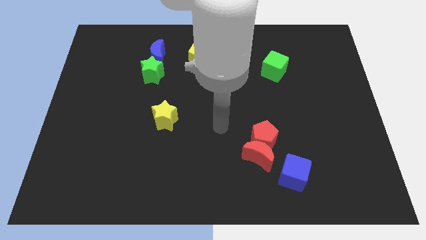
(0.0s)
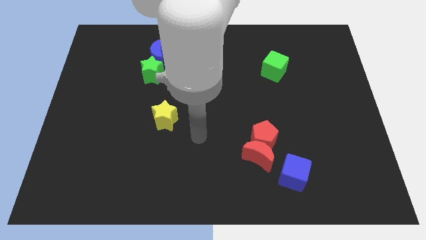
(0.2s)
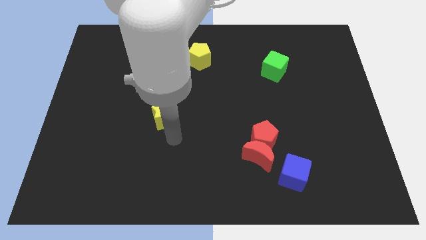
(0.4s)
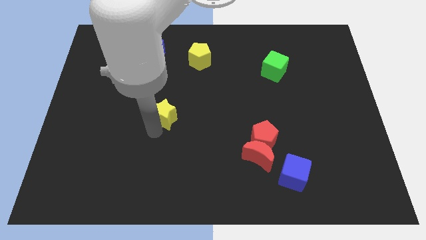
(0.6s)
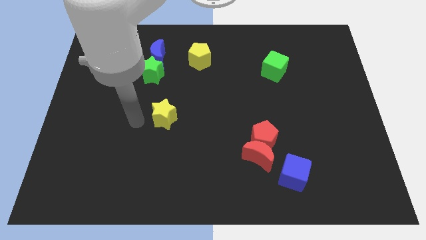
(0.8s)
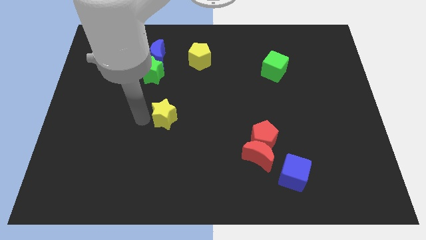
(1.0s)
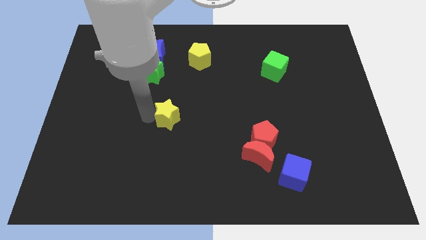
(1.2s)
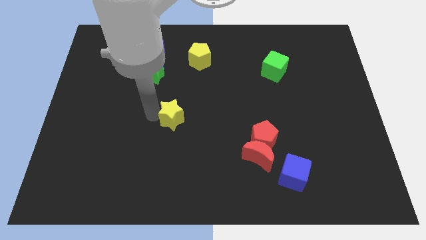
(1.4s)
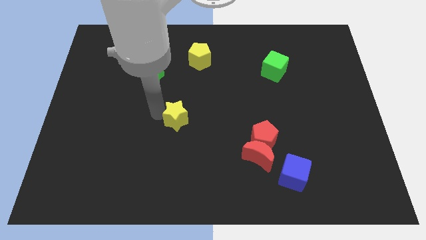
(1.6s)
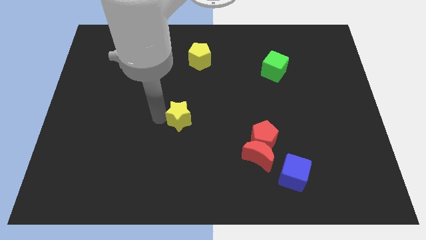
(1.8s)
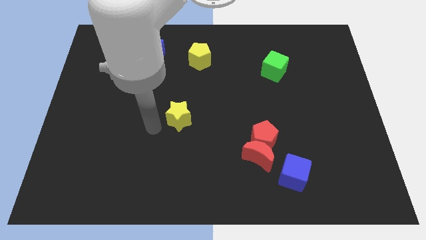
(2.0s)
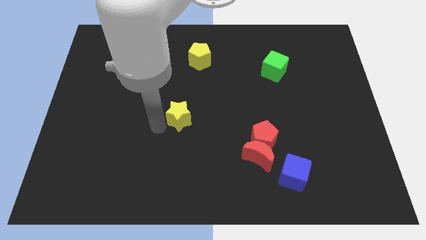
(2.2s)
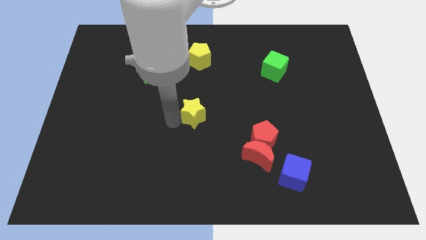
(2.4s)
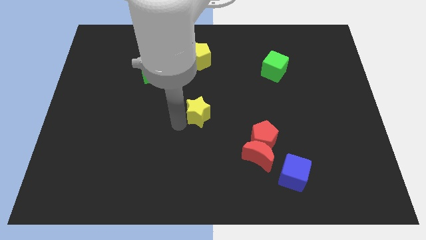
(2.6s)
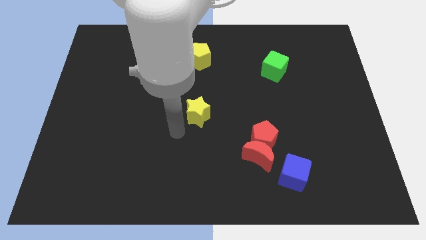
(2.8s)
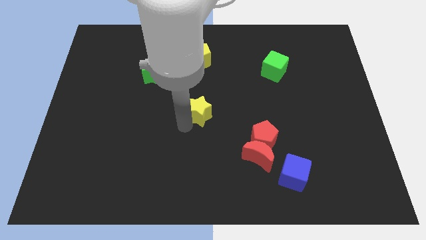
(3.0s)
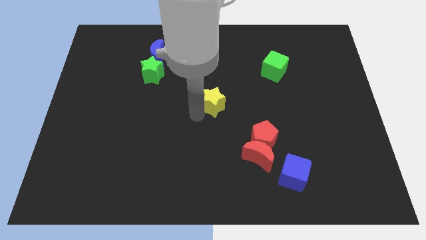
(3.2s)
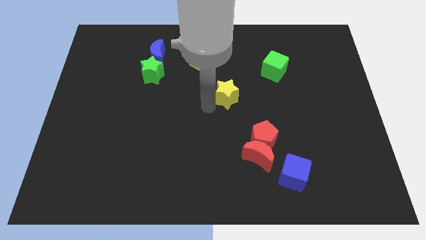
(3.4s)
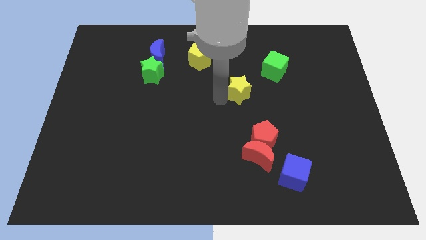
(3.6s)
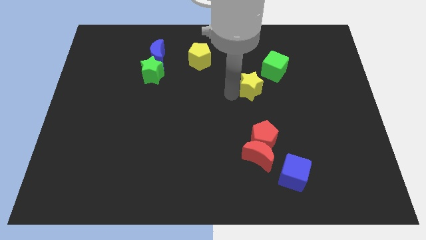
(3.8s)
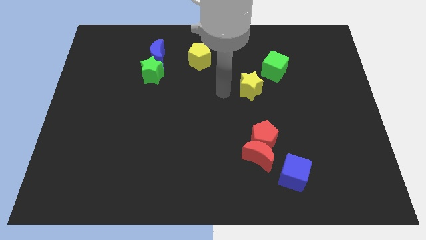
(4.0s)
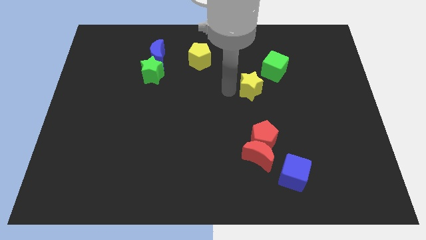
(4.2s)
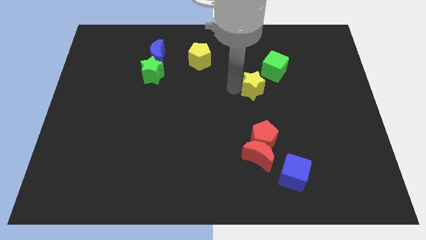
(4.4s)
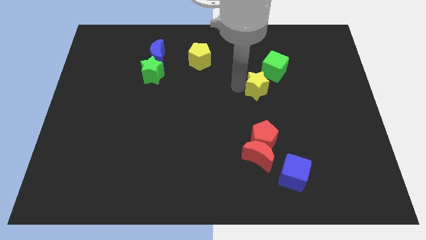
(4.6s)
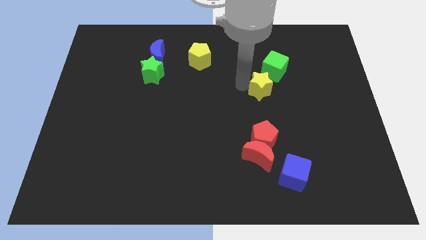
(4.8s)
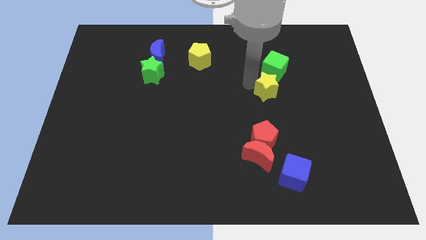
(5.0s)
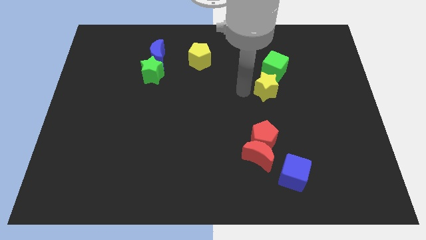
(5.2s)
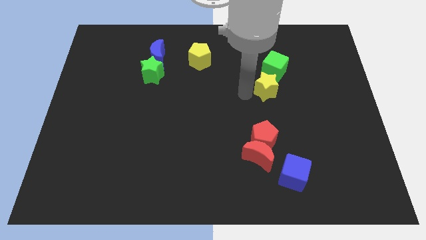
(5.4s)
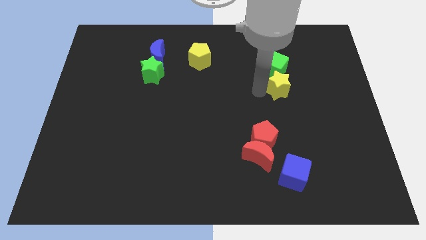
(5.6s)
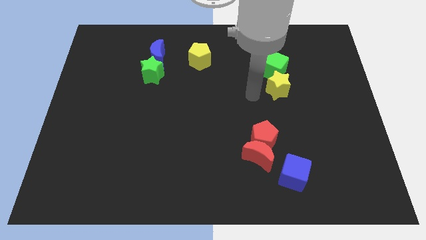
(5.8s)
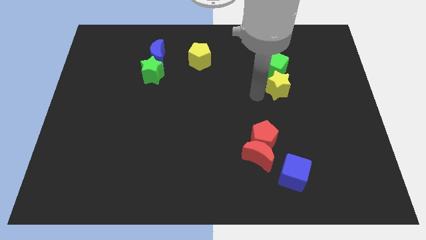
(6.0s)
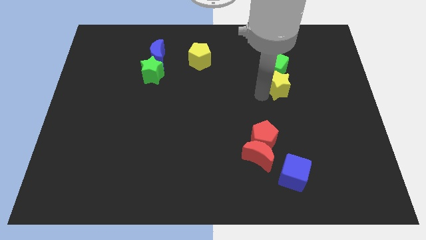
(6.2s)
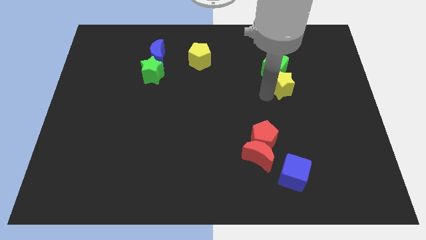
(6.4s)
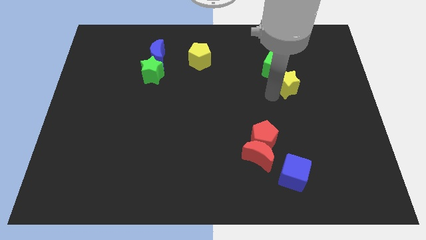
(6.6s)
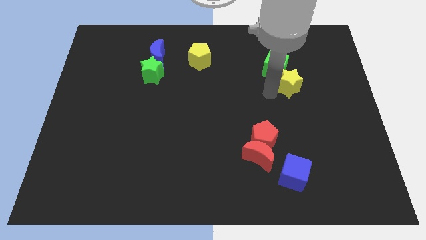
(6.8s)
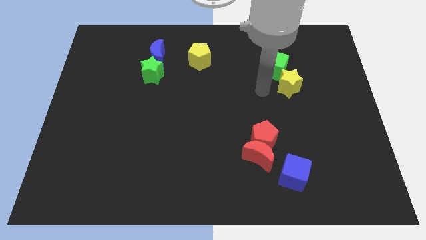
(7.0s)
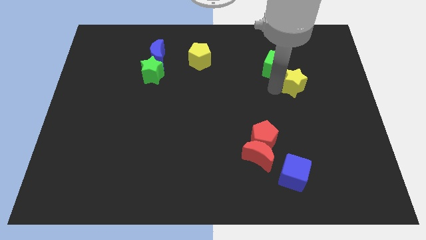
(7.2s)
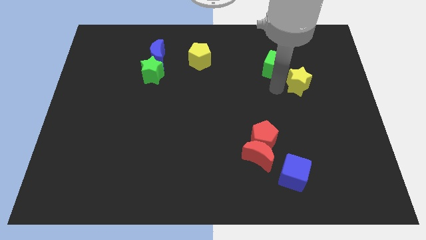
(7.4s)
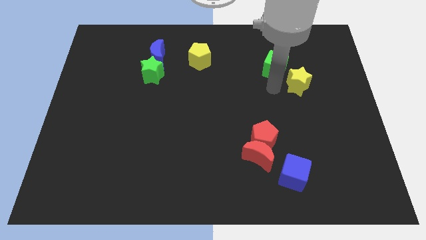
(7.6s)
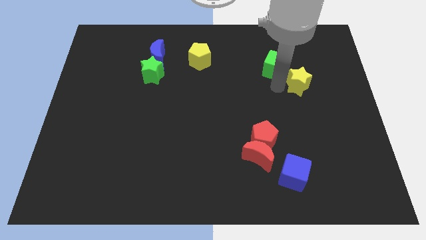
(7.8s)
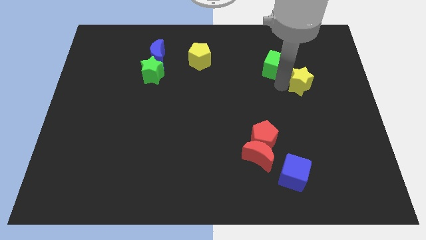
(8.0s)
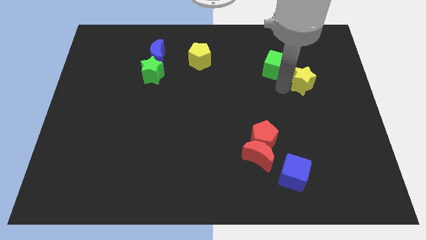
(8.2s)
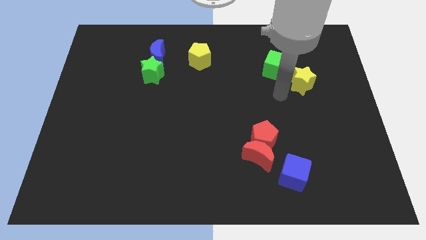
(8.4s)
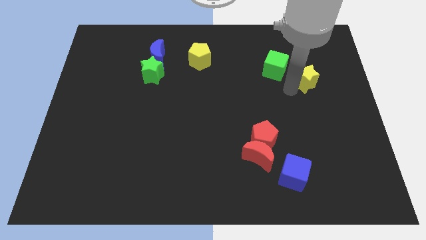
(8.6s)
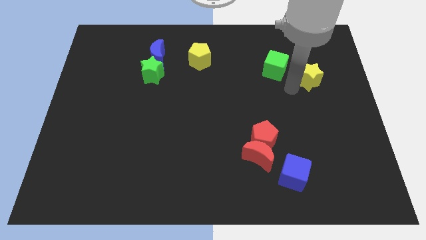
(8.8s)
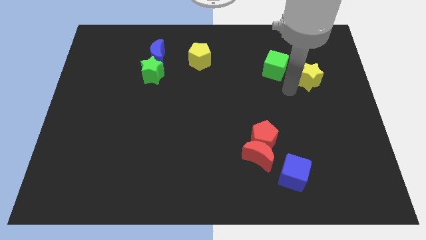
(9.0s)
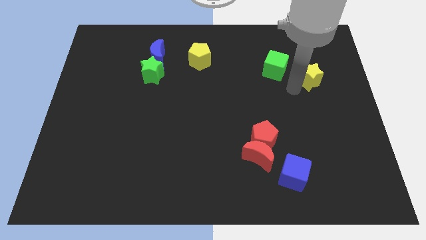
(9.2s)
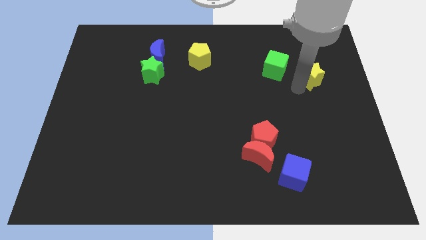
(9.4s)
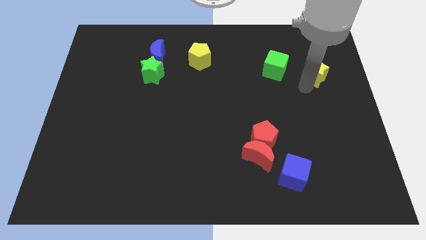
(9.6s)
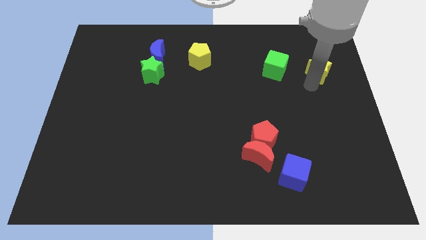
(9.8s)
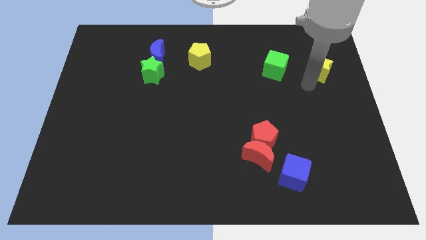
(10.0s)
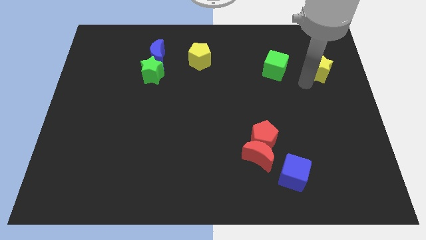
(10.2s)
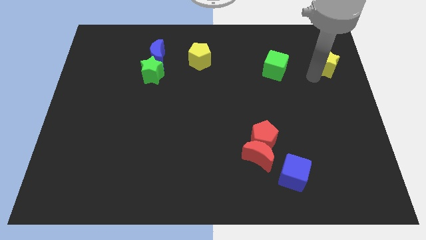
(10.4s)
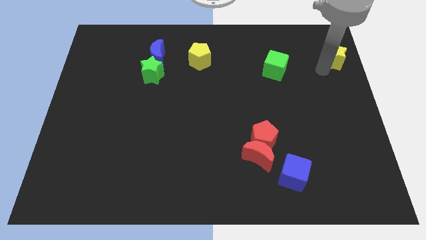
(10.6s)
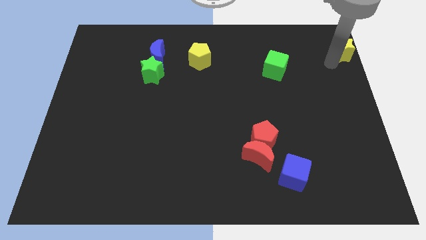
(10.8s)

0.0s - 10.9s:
put the yellow star to the top right corner

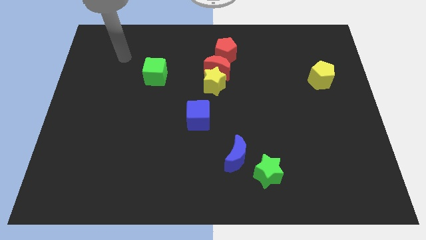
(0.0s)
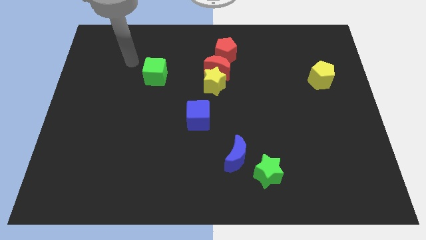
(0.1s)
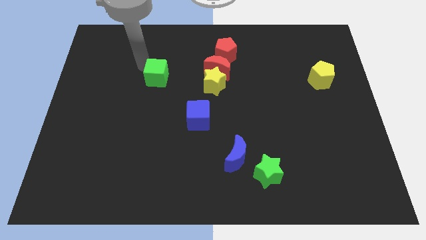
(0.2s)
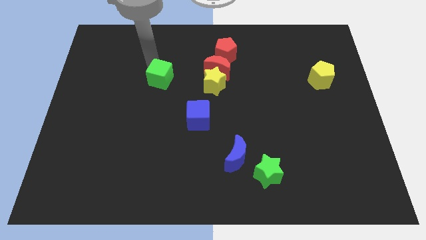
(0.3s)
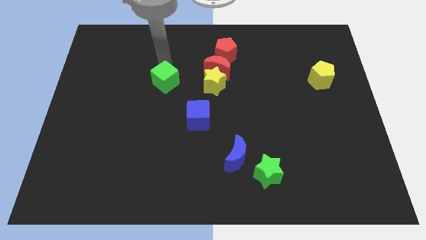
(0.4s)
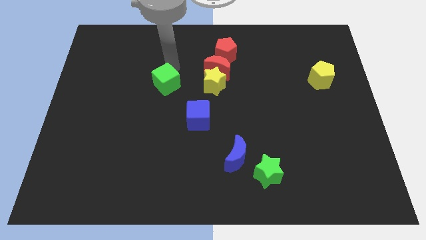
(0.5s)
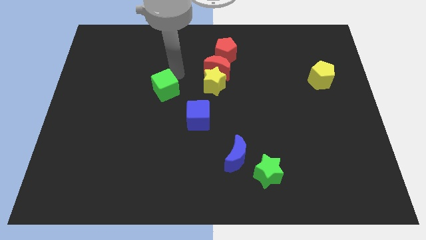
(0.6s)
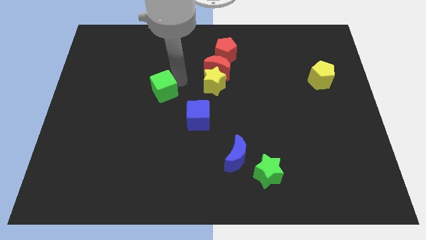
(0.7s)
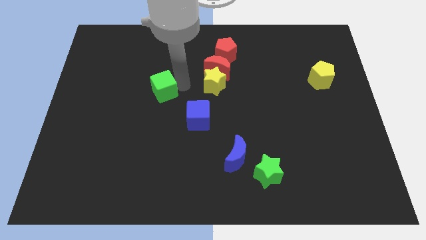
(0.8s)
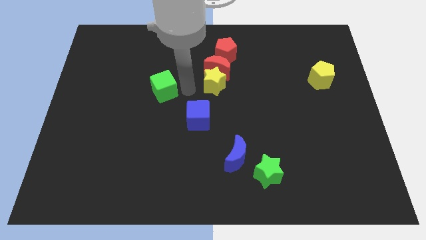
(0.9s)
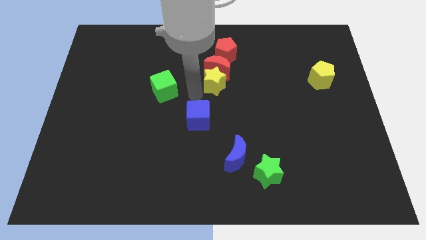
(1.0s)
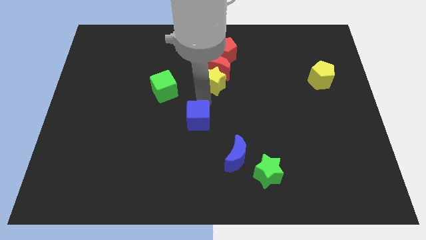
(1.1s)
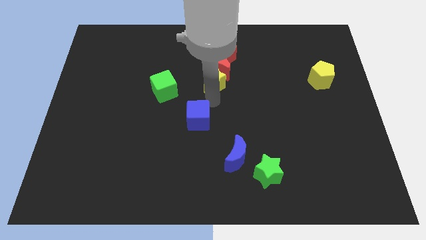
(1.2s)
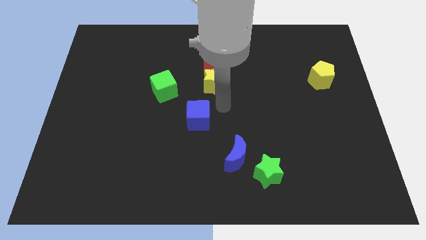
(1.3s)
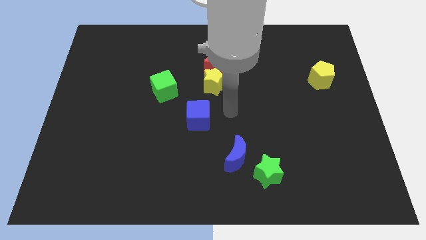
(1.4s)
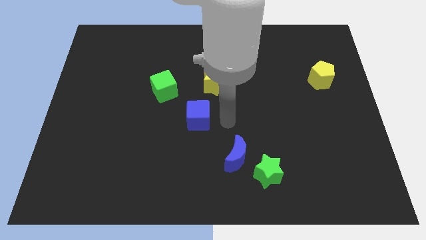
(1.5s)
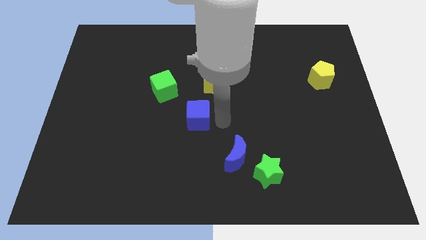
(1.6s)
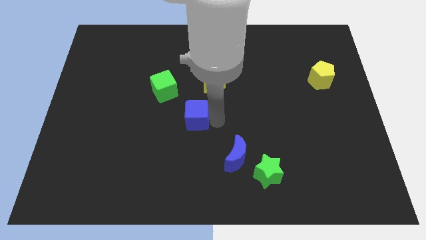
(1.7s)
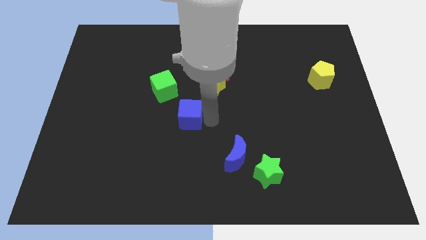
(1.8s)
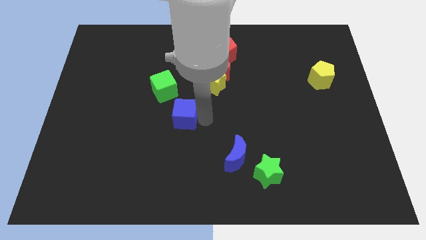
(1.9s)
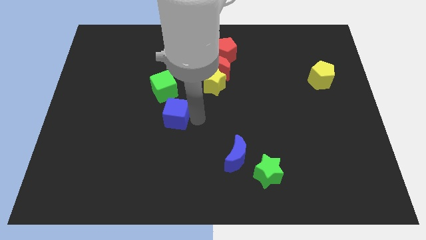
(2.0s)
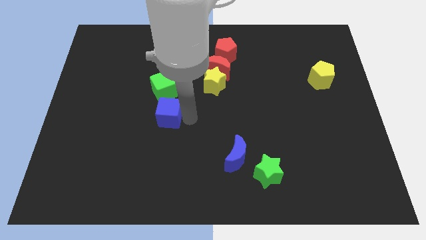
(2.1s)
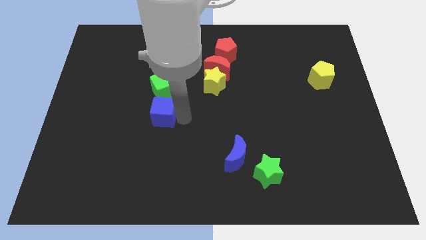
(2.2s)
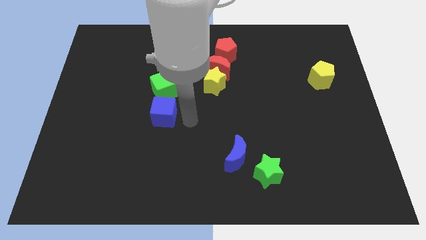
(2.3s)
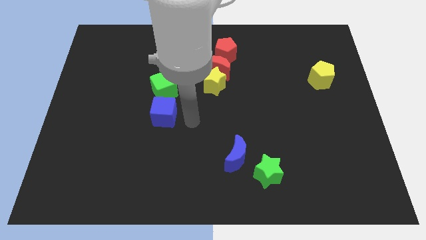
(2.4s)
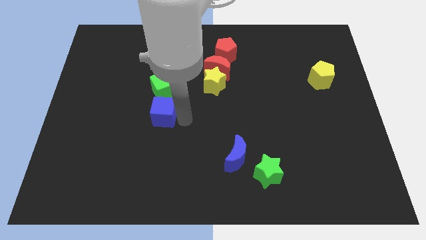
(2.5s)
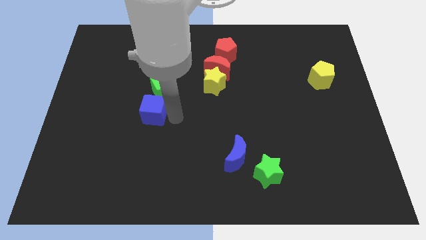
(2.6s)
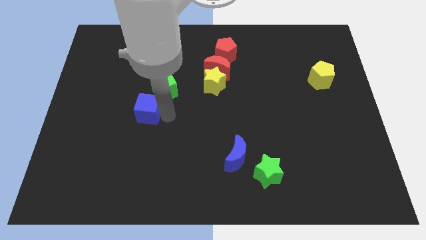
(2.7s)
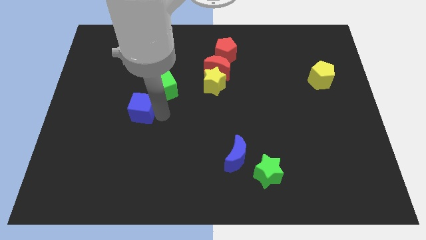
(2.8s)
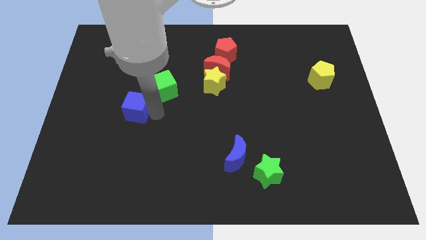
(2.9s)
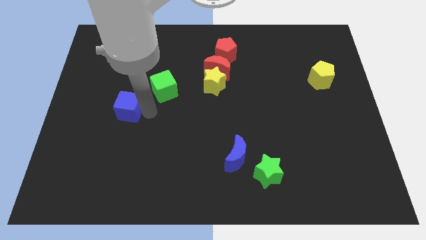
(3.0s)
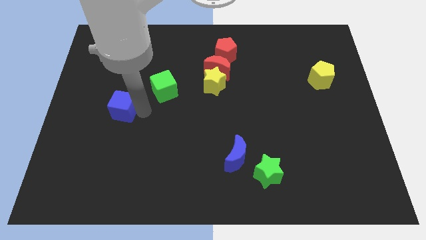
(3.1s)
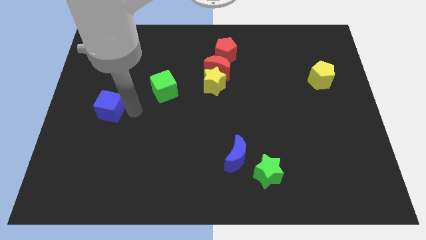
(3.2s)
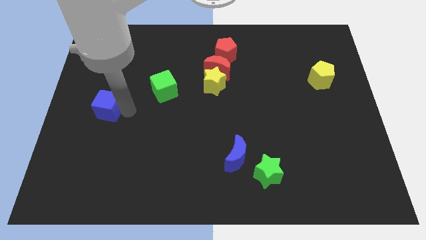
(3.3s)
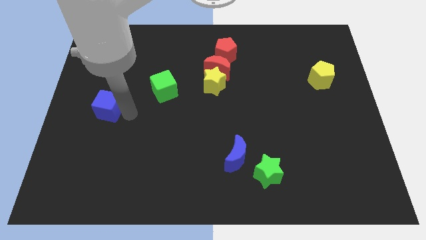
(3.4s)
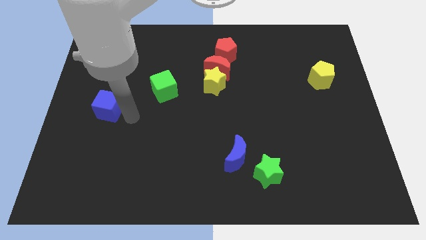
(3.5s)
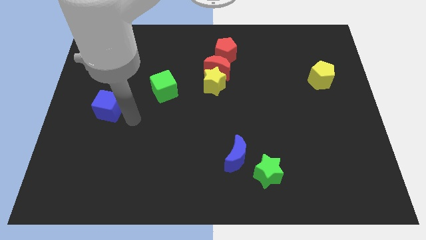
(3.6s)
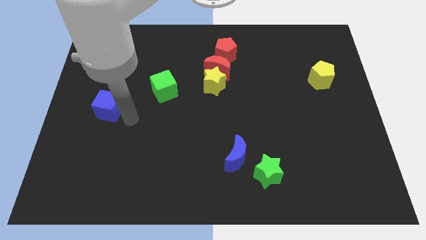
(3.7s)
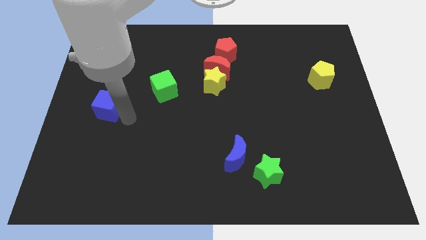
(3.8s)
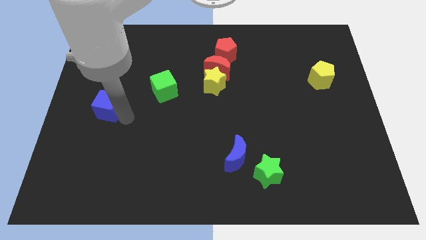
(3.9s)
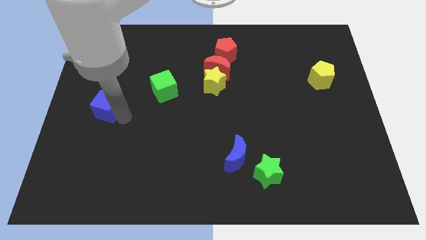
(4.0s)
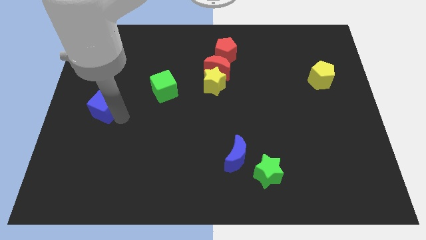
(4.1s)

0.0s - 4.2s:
move the blue cube to the left side
